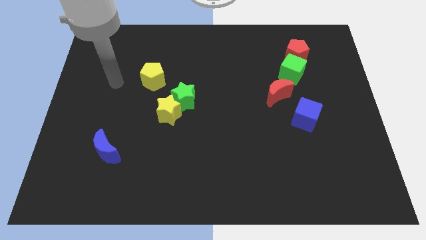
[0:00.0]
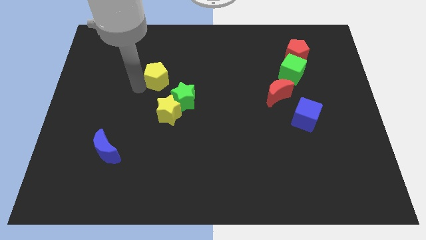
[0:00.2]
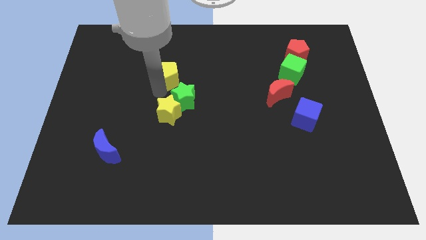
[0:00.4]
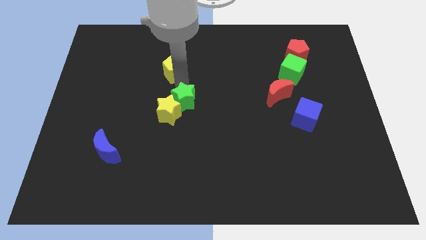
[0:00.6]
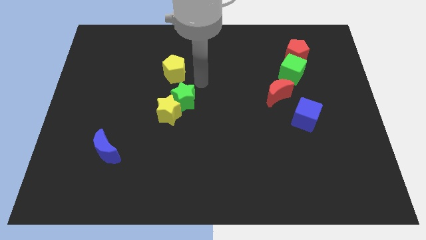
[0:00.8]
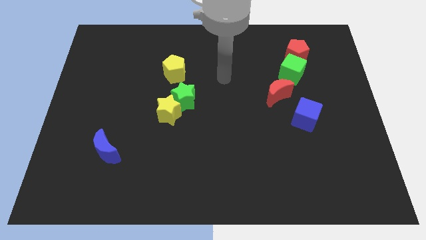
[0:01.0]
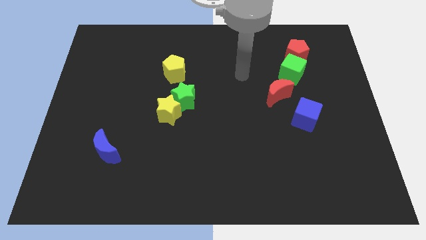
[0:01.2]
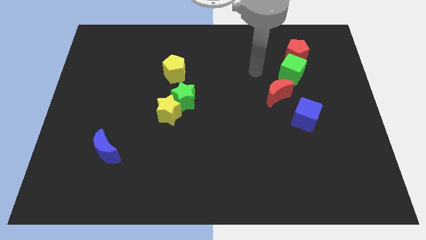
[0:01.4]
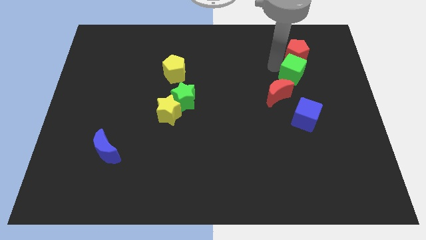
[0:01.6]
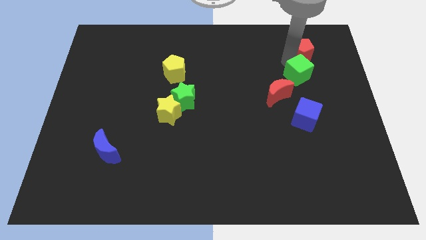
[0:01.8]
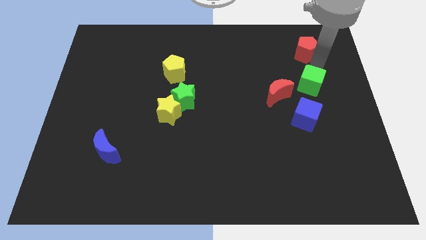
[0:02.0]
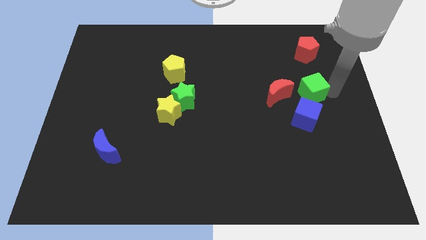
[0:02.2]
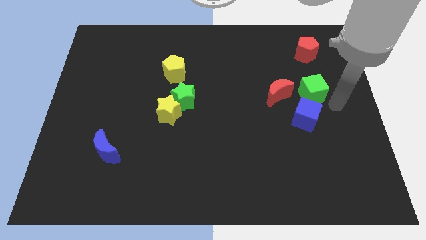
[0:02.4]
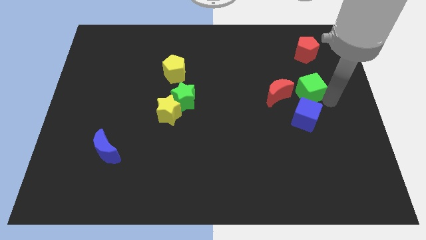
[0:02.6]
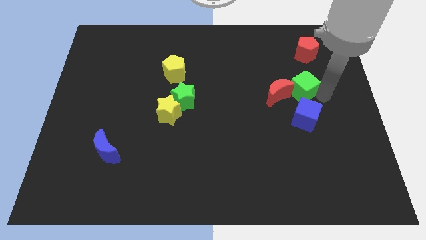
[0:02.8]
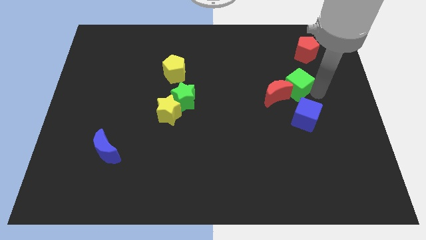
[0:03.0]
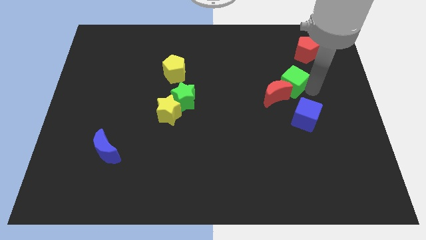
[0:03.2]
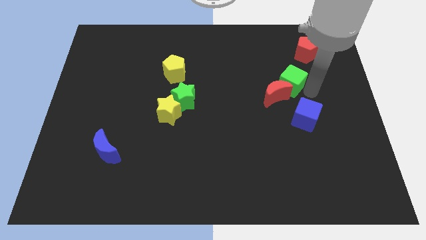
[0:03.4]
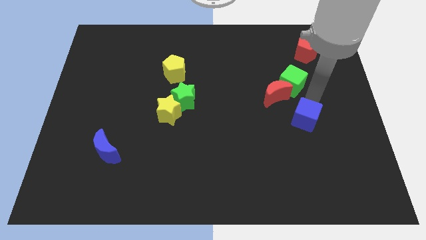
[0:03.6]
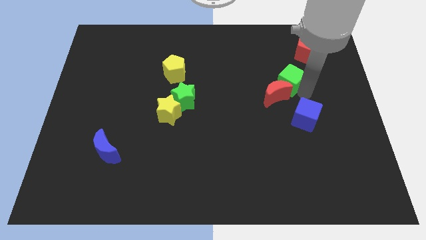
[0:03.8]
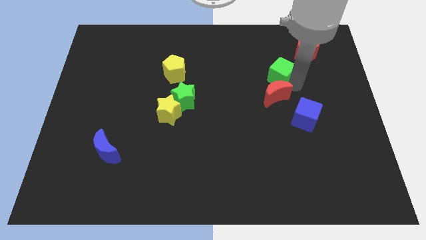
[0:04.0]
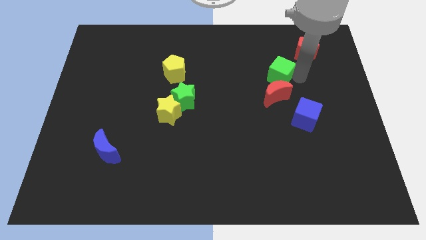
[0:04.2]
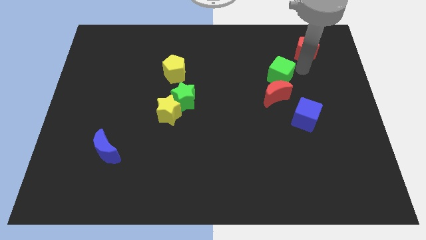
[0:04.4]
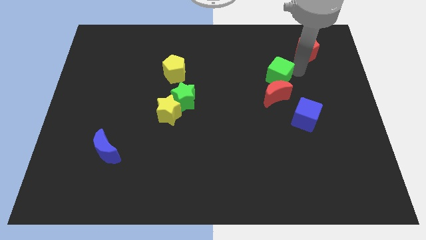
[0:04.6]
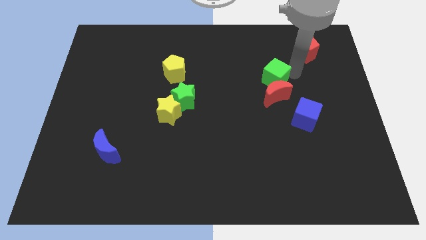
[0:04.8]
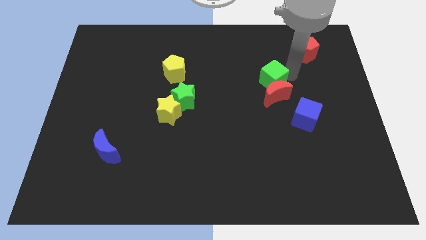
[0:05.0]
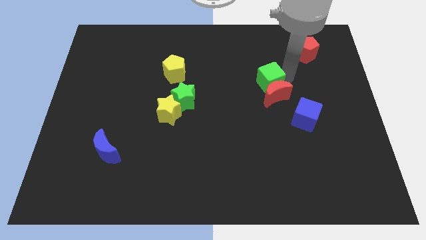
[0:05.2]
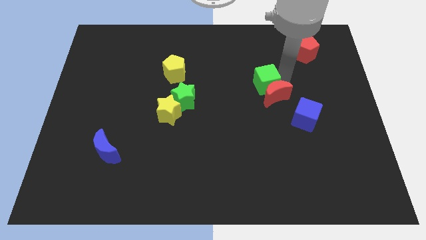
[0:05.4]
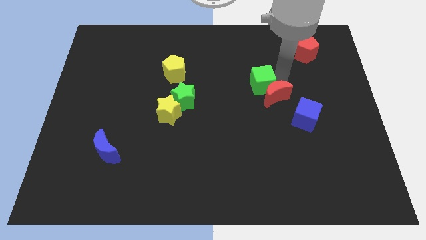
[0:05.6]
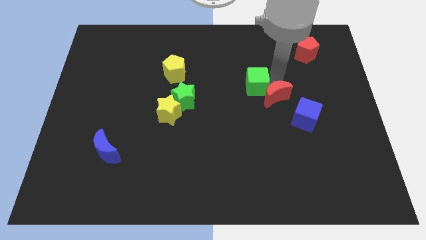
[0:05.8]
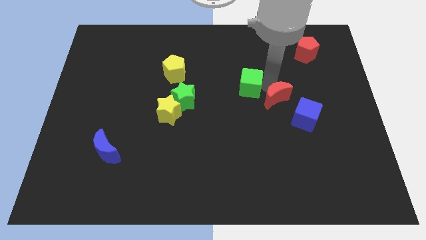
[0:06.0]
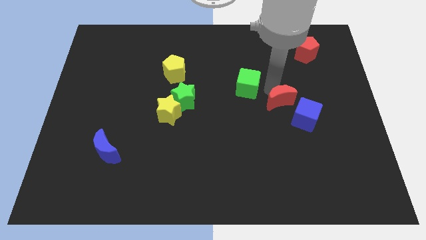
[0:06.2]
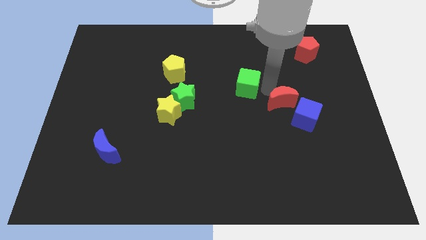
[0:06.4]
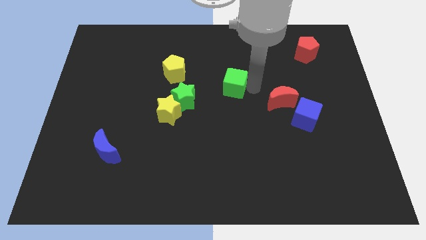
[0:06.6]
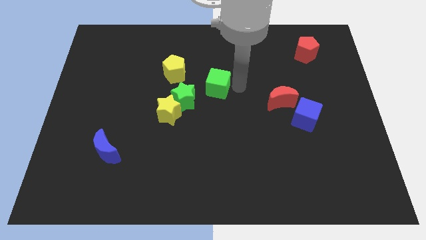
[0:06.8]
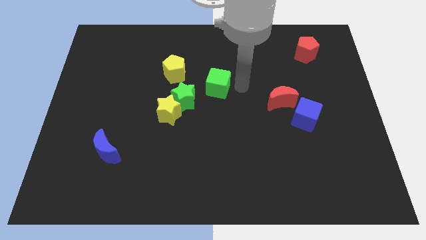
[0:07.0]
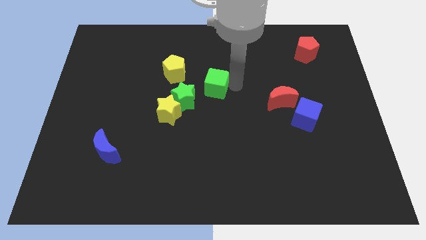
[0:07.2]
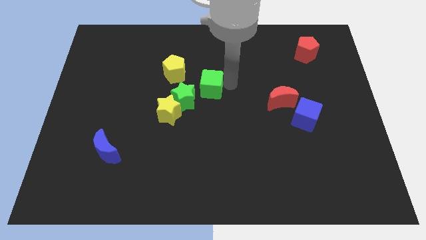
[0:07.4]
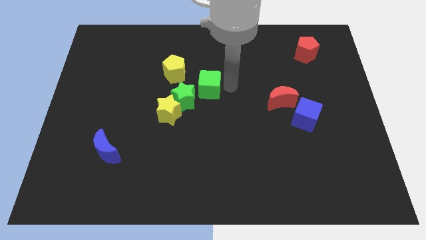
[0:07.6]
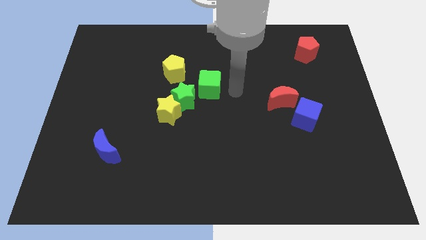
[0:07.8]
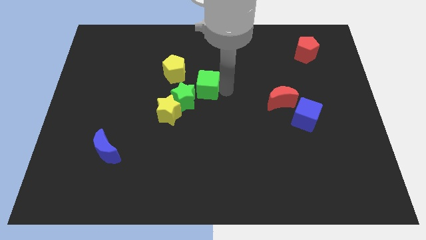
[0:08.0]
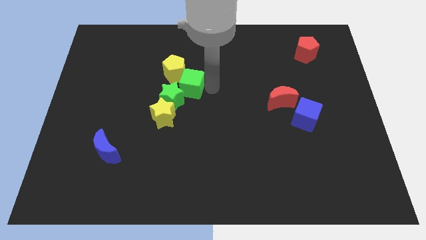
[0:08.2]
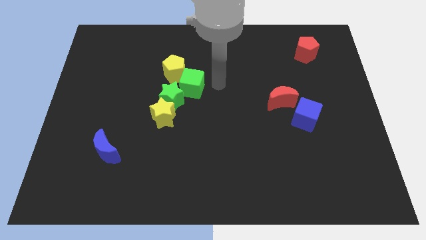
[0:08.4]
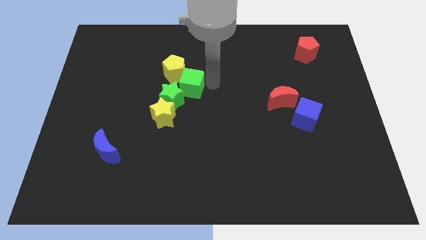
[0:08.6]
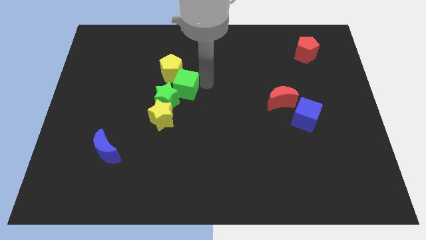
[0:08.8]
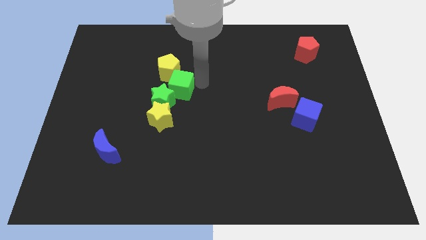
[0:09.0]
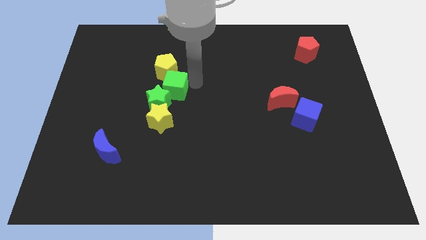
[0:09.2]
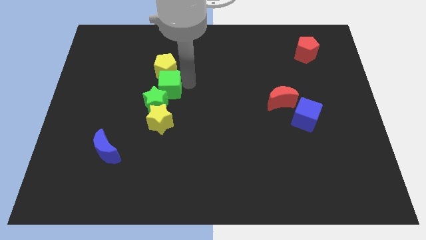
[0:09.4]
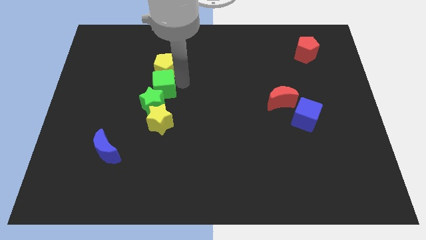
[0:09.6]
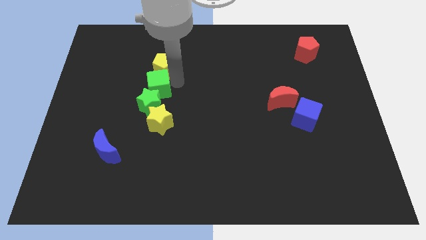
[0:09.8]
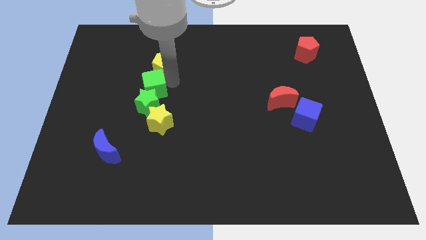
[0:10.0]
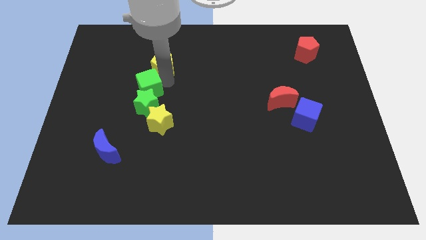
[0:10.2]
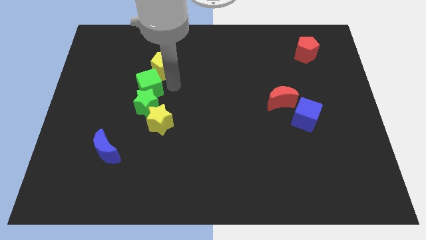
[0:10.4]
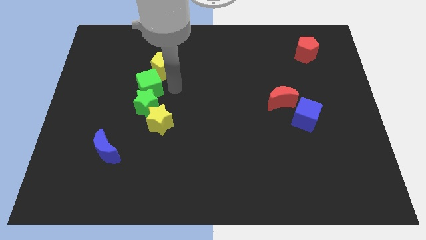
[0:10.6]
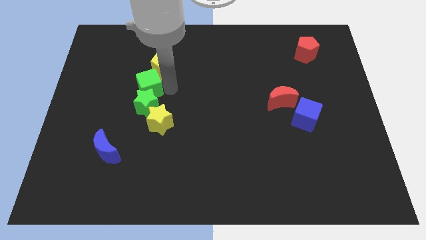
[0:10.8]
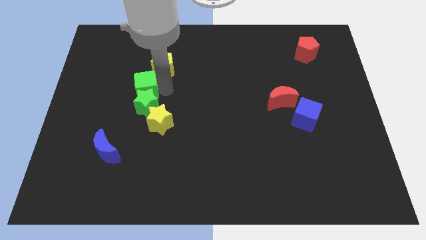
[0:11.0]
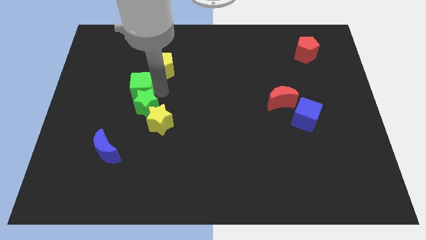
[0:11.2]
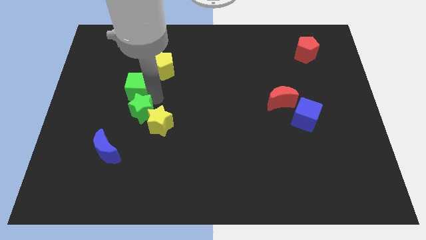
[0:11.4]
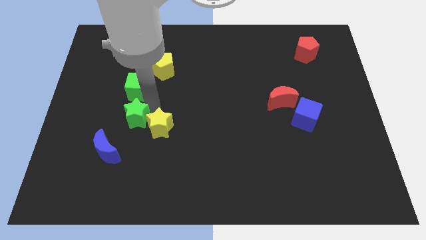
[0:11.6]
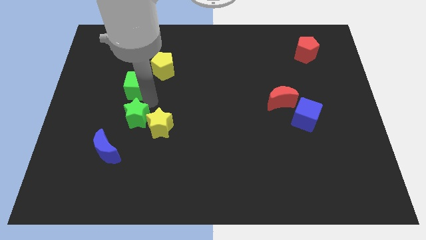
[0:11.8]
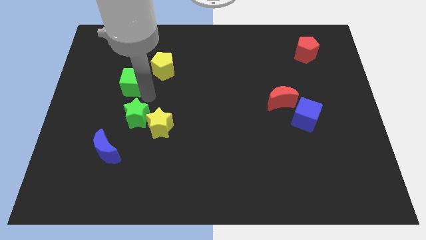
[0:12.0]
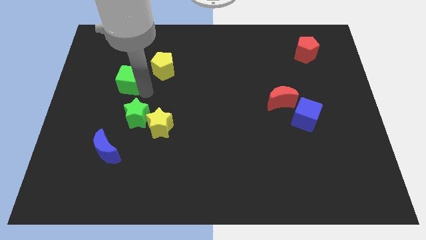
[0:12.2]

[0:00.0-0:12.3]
move the green cube just left of the yellow pentagon

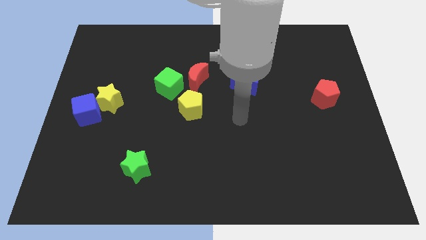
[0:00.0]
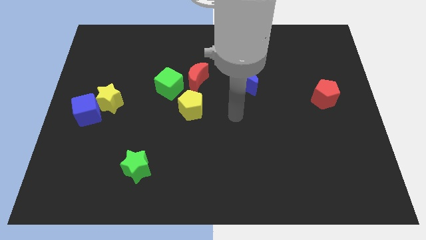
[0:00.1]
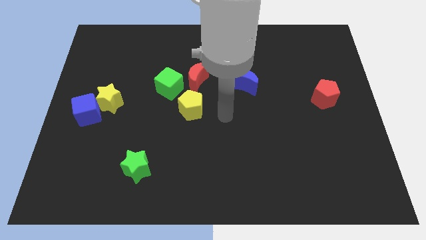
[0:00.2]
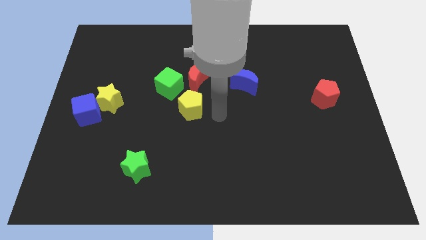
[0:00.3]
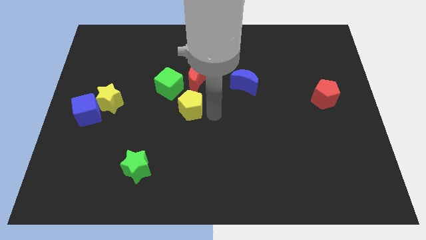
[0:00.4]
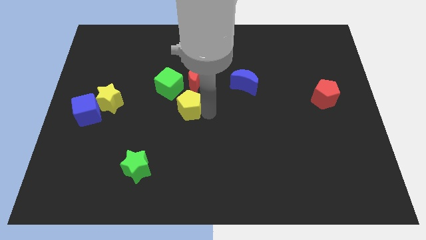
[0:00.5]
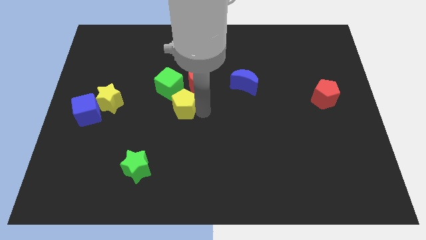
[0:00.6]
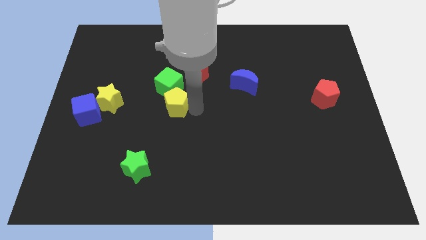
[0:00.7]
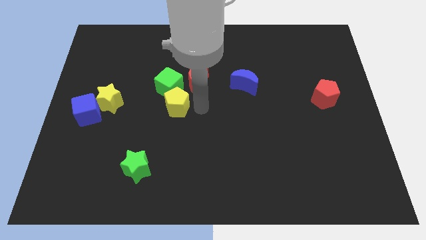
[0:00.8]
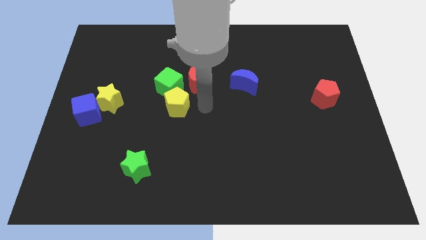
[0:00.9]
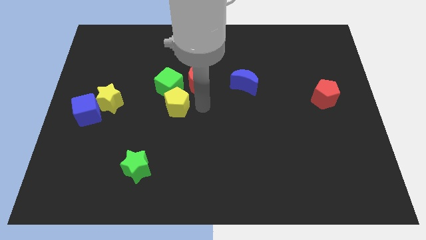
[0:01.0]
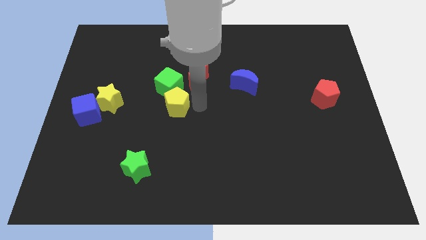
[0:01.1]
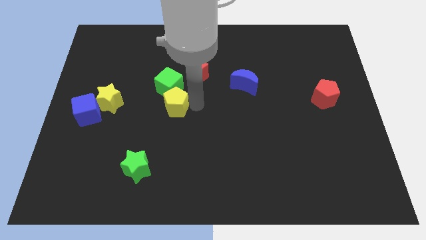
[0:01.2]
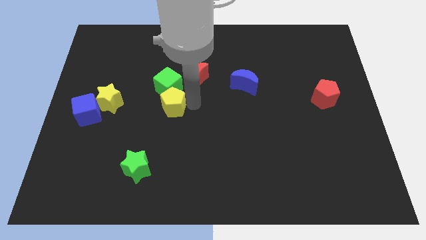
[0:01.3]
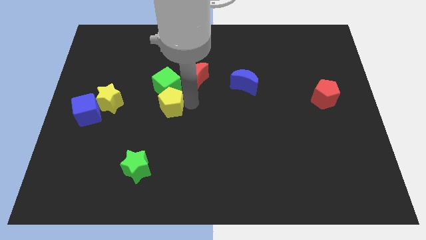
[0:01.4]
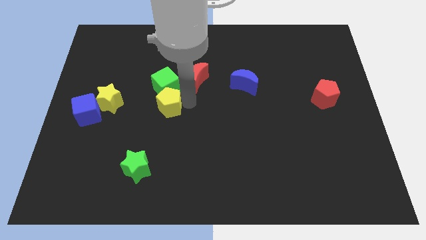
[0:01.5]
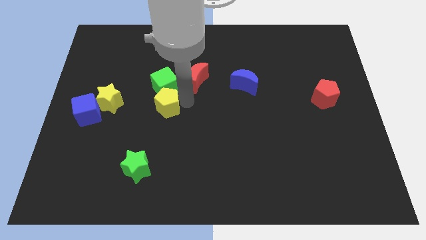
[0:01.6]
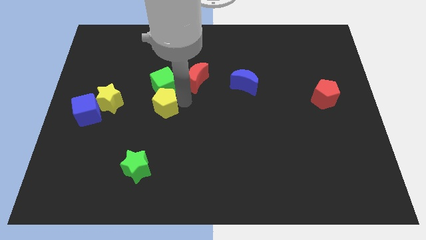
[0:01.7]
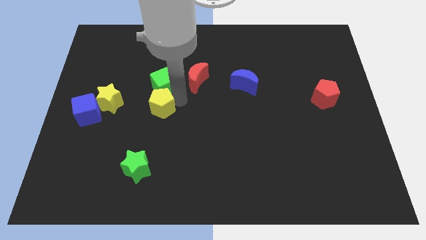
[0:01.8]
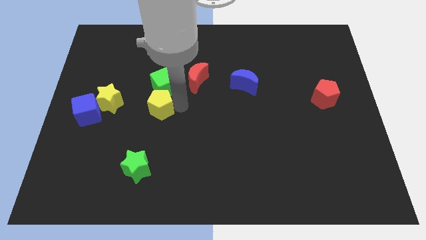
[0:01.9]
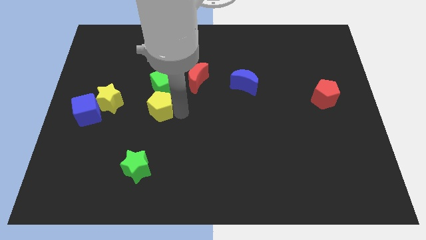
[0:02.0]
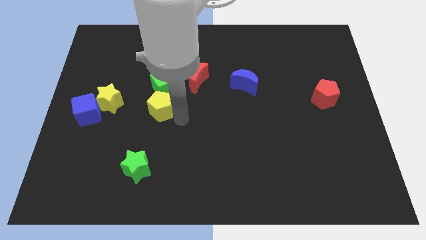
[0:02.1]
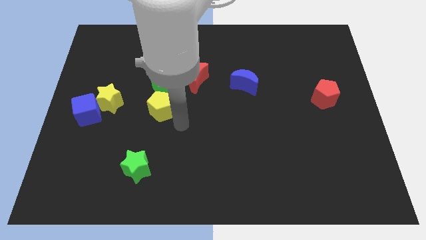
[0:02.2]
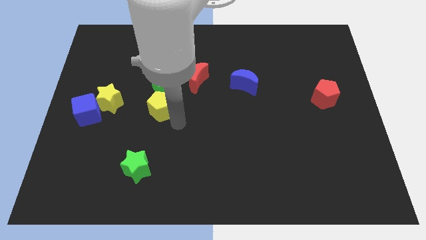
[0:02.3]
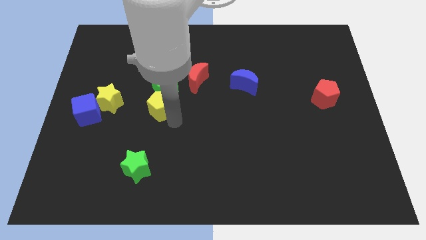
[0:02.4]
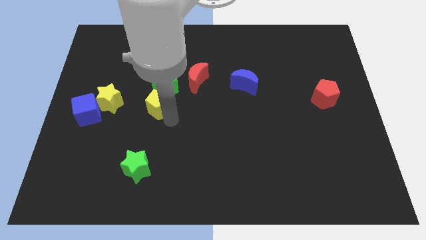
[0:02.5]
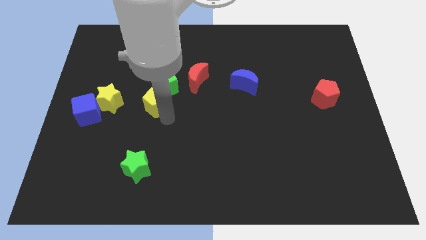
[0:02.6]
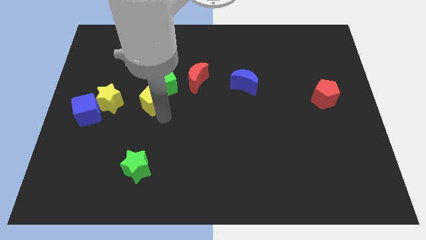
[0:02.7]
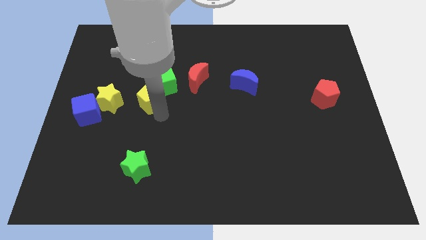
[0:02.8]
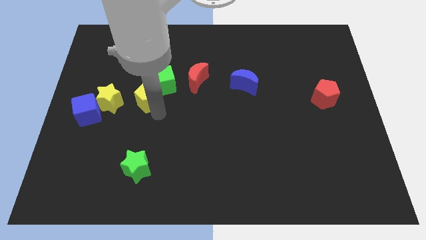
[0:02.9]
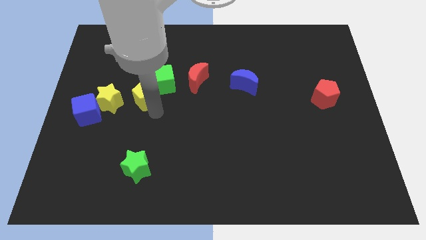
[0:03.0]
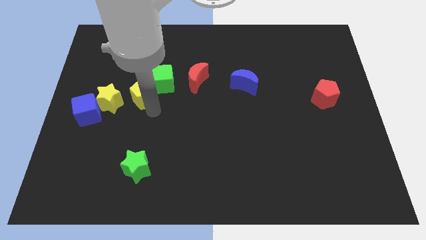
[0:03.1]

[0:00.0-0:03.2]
put the yellow pentagon to the top right side of the yellow star
